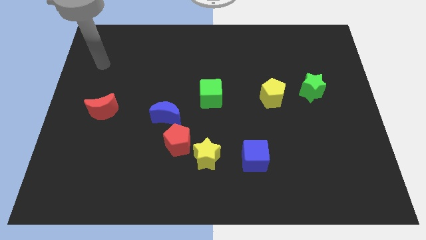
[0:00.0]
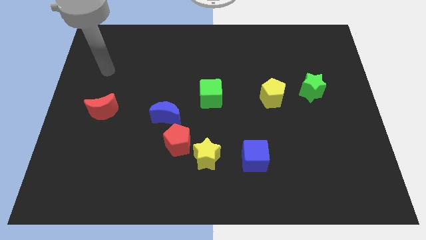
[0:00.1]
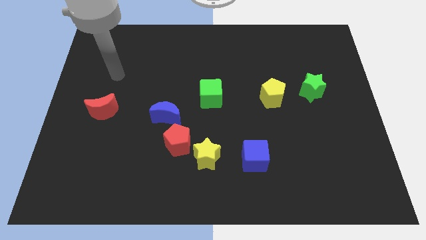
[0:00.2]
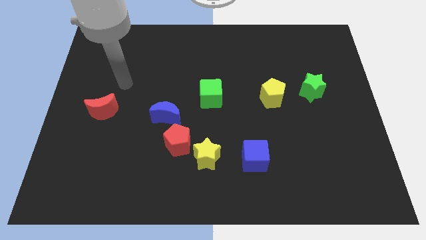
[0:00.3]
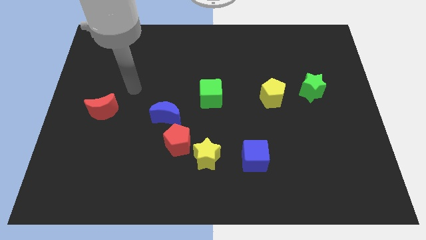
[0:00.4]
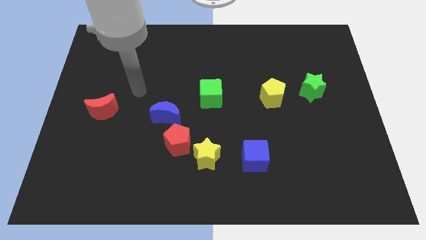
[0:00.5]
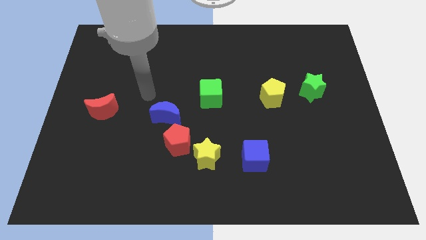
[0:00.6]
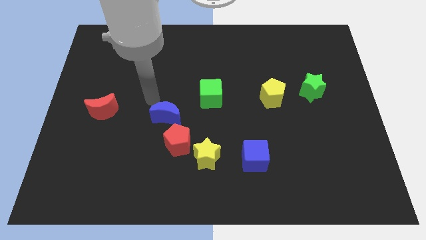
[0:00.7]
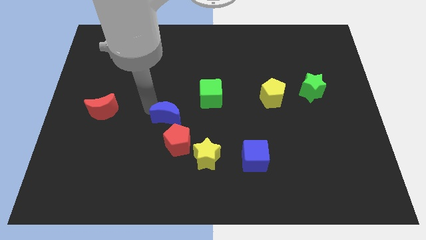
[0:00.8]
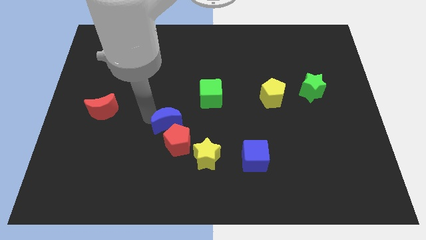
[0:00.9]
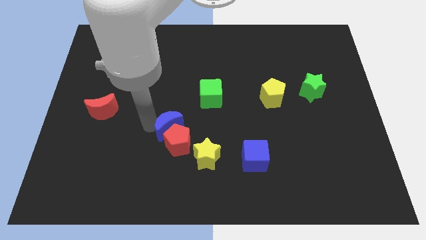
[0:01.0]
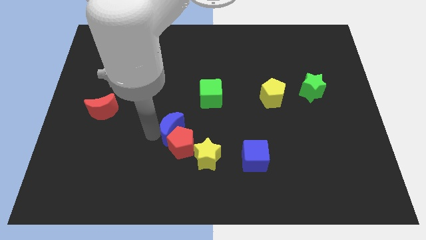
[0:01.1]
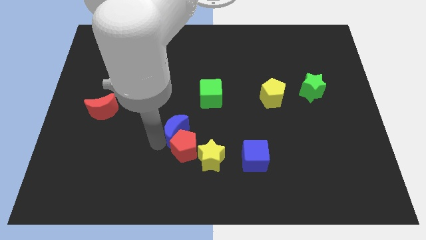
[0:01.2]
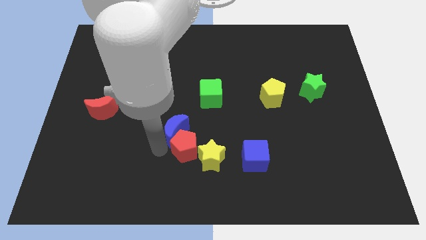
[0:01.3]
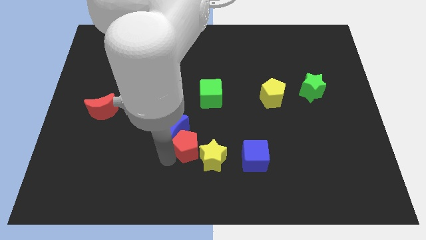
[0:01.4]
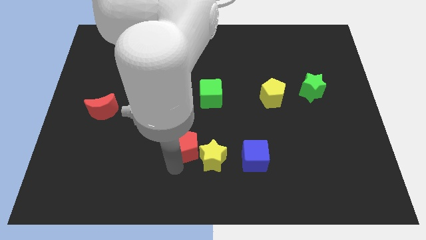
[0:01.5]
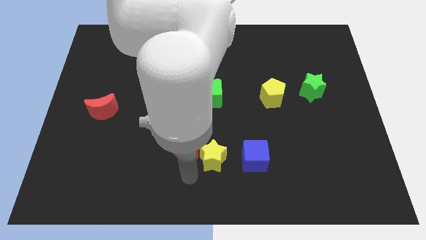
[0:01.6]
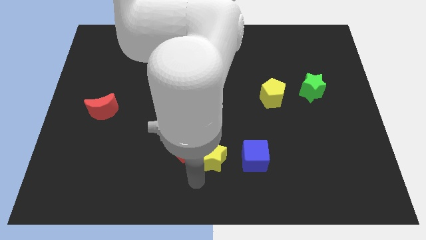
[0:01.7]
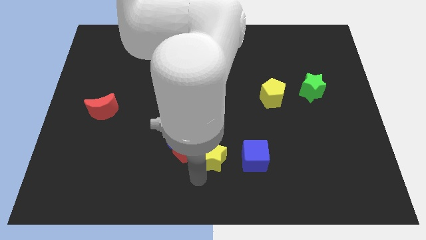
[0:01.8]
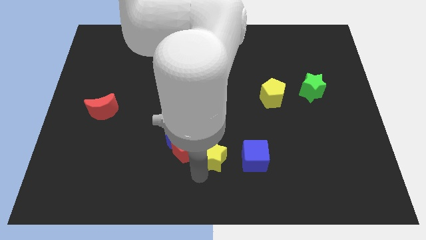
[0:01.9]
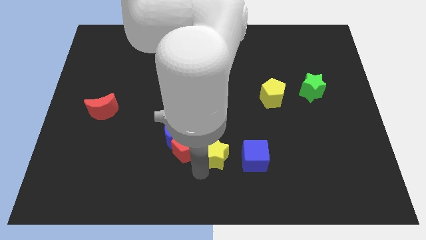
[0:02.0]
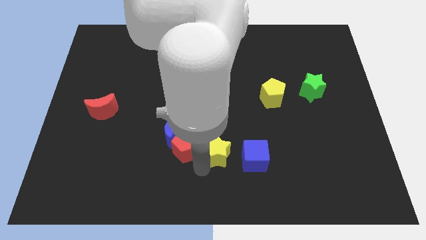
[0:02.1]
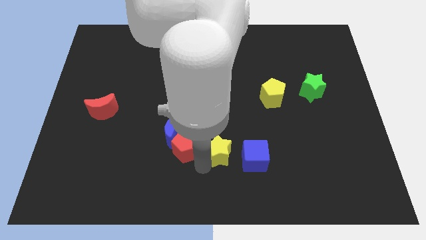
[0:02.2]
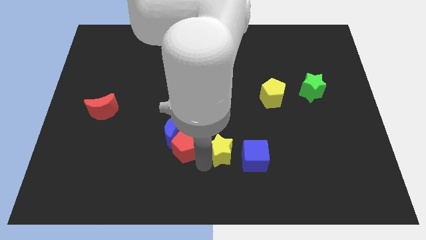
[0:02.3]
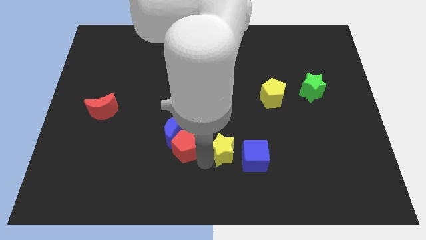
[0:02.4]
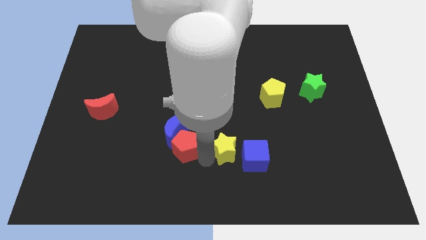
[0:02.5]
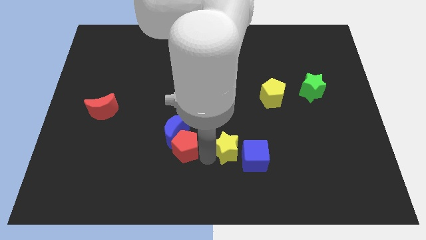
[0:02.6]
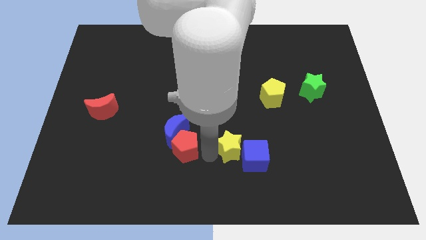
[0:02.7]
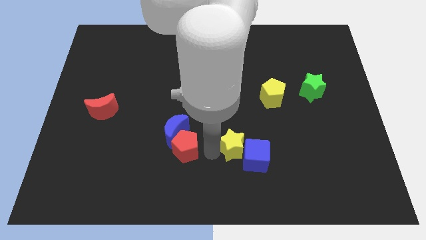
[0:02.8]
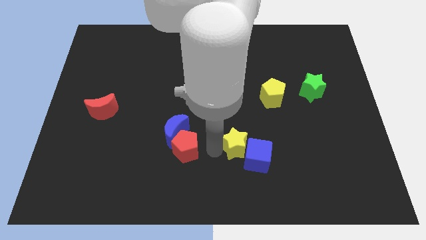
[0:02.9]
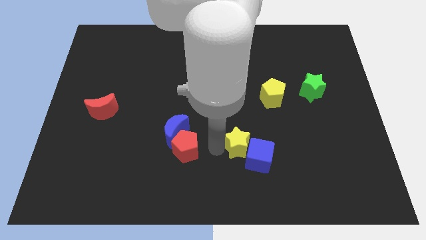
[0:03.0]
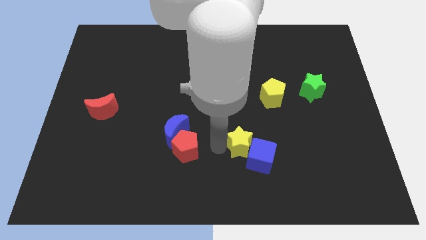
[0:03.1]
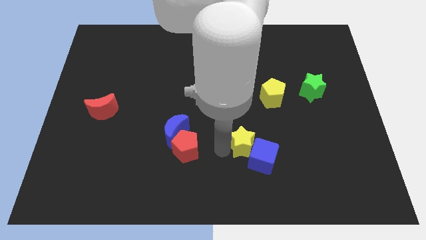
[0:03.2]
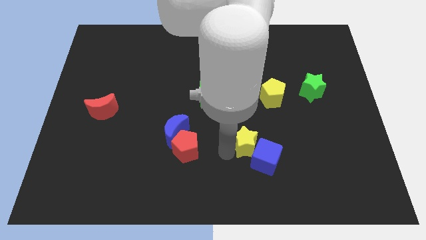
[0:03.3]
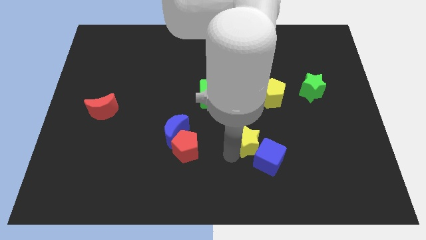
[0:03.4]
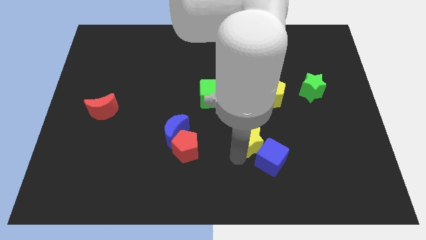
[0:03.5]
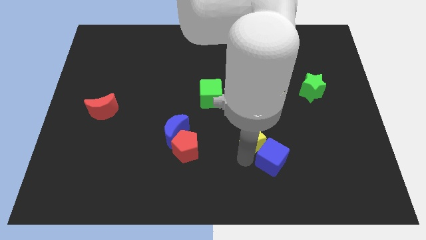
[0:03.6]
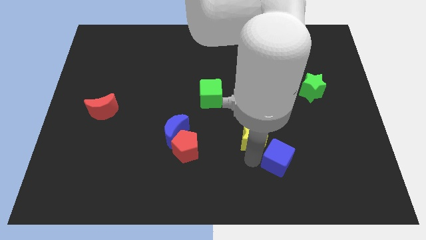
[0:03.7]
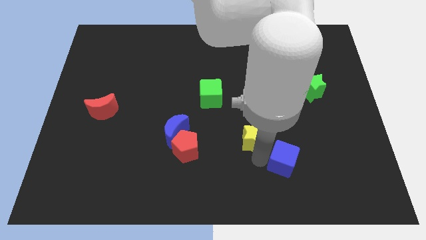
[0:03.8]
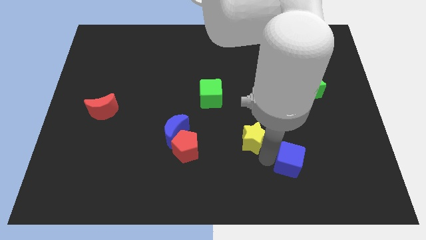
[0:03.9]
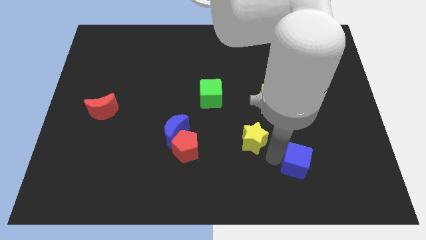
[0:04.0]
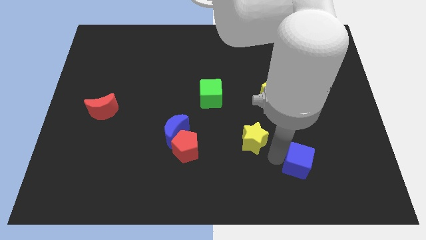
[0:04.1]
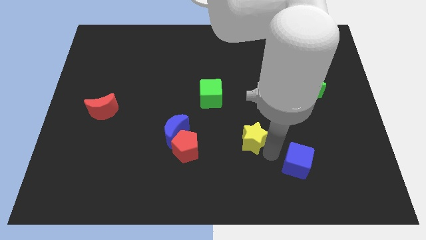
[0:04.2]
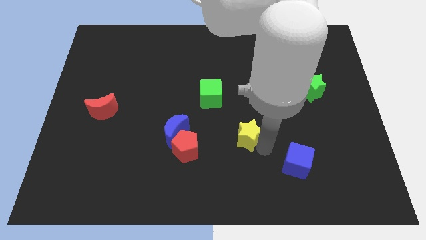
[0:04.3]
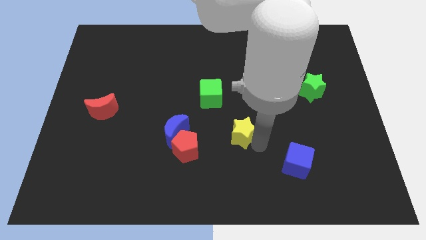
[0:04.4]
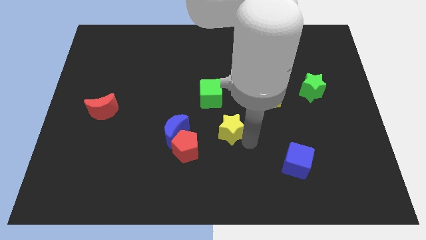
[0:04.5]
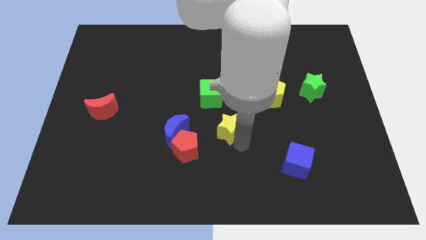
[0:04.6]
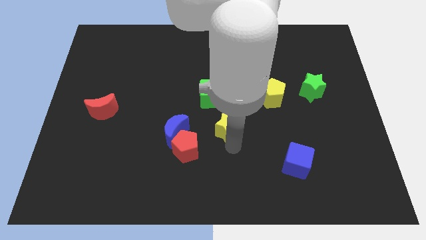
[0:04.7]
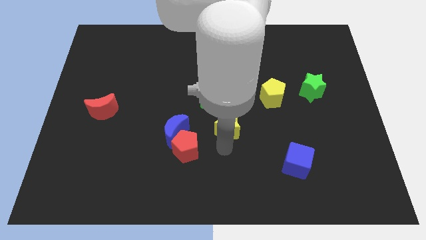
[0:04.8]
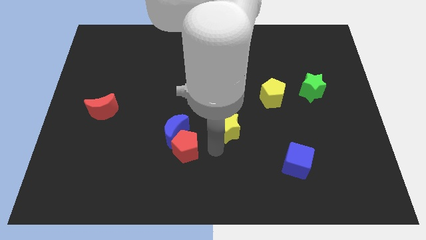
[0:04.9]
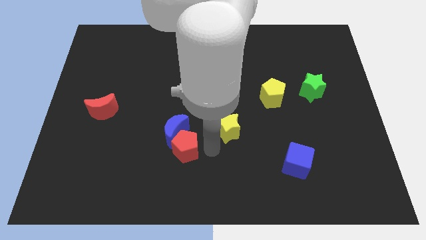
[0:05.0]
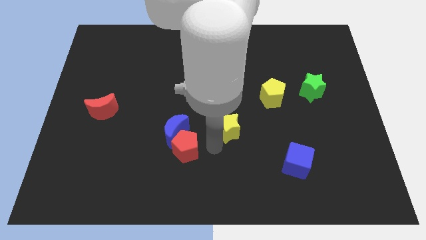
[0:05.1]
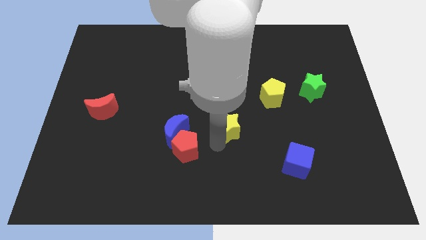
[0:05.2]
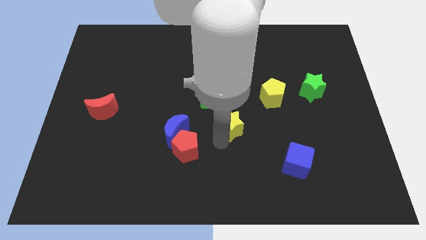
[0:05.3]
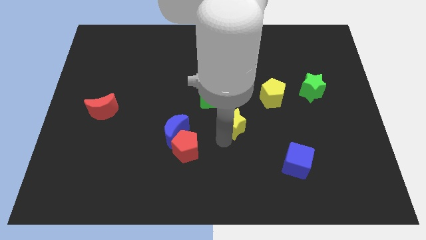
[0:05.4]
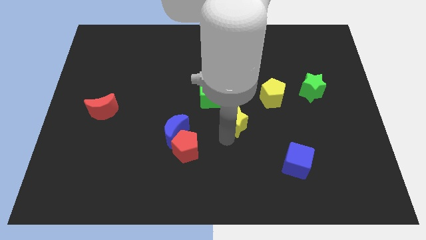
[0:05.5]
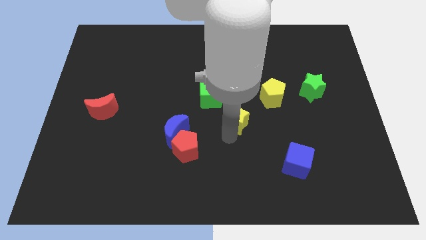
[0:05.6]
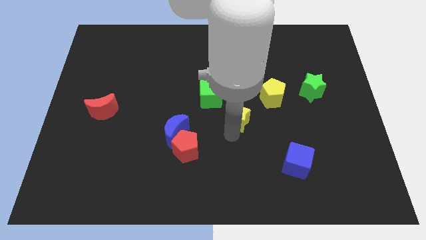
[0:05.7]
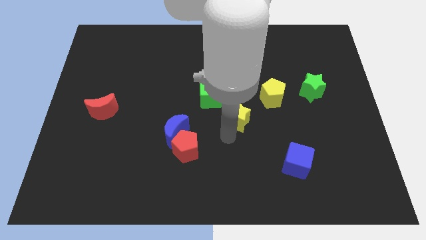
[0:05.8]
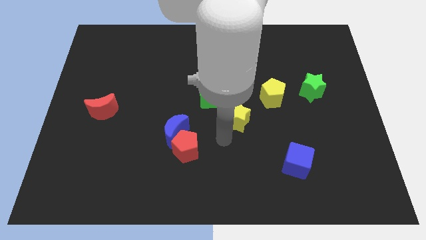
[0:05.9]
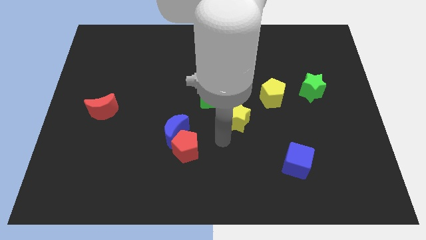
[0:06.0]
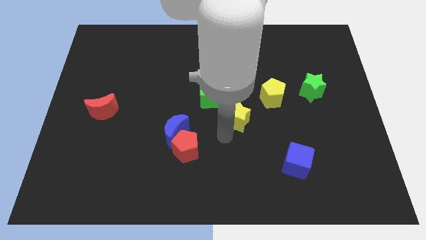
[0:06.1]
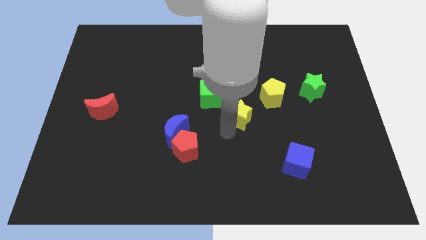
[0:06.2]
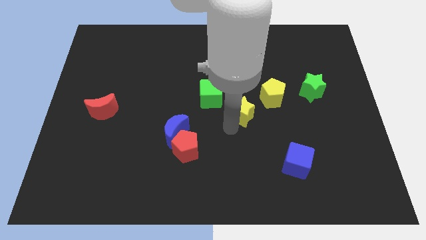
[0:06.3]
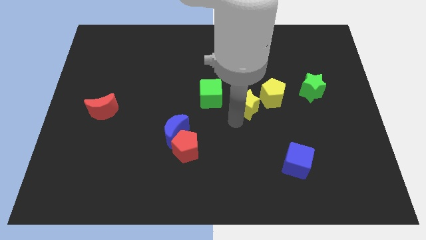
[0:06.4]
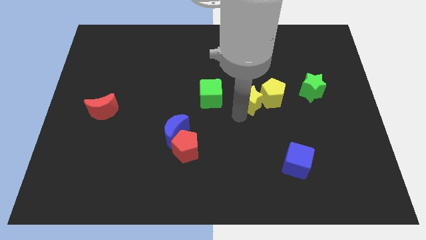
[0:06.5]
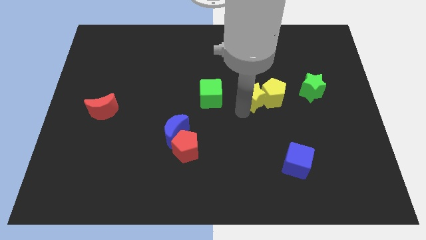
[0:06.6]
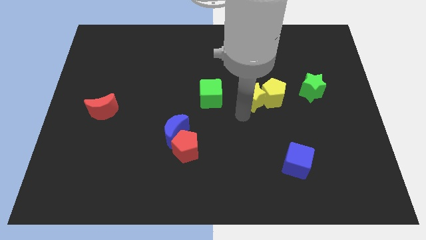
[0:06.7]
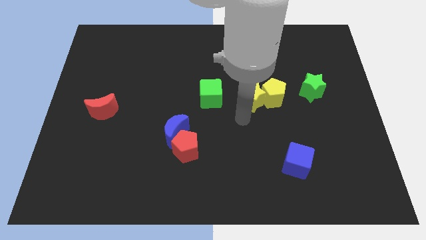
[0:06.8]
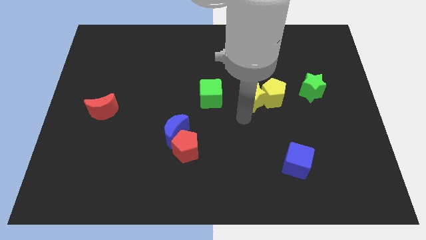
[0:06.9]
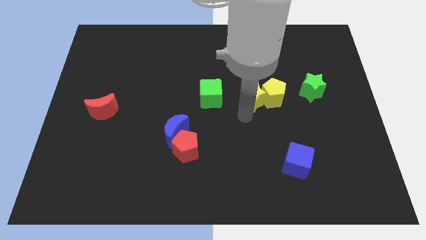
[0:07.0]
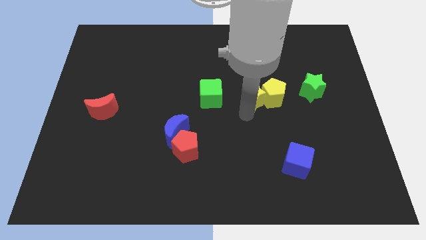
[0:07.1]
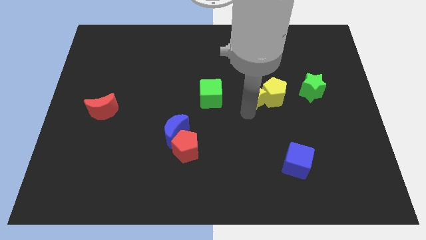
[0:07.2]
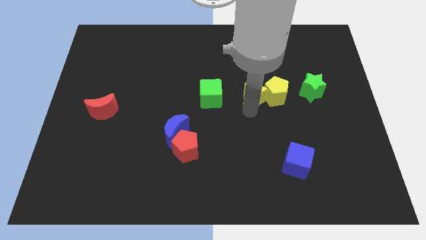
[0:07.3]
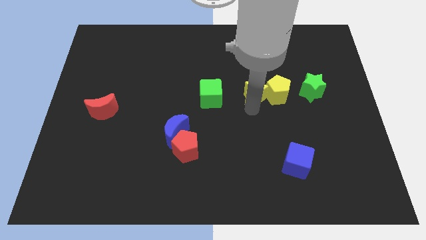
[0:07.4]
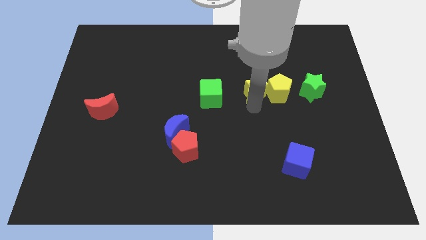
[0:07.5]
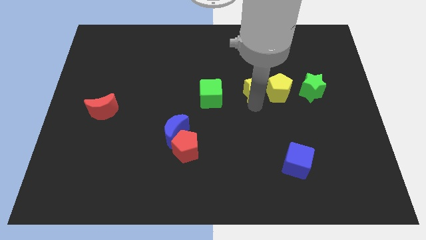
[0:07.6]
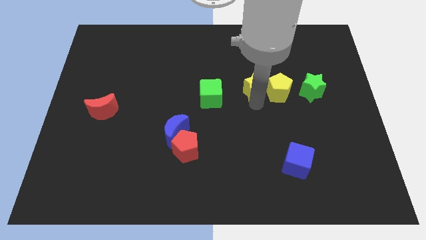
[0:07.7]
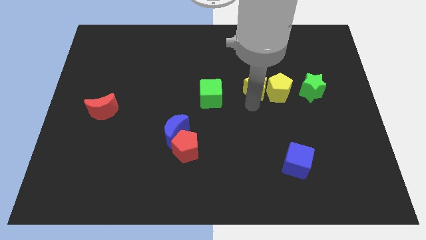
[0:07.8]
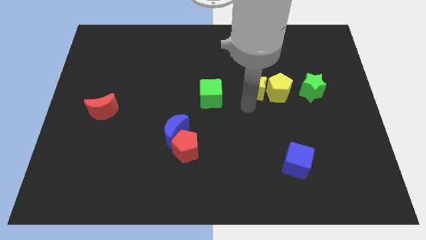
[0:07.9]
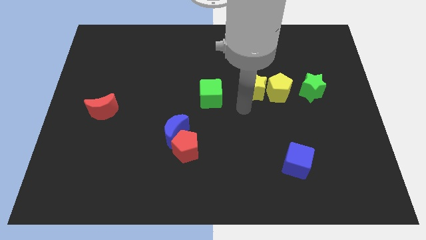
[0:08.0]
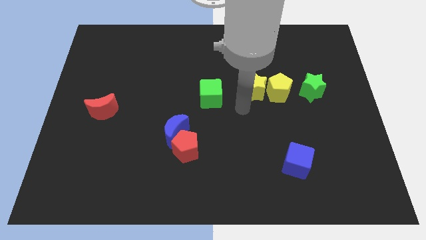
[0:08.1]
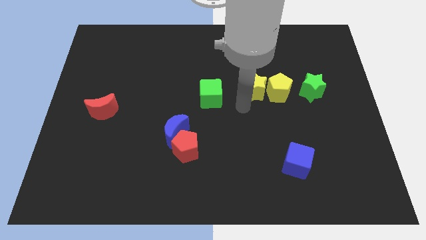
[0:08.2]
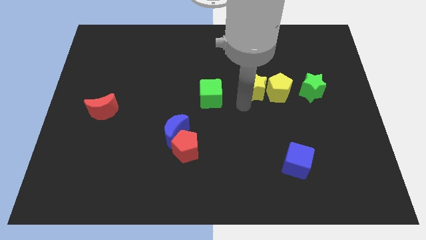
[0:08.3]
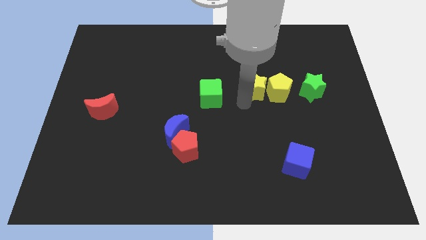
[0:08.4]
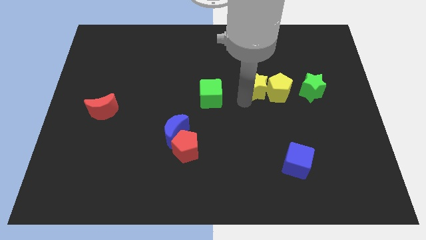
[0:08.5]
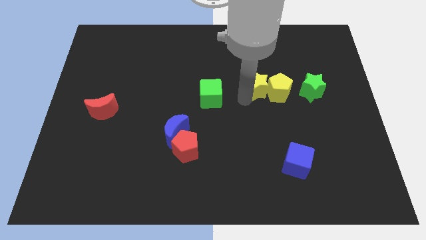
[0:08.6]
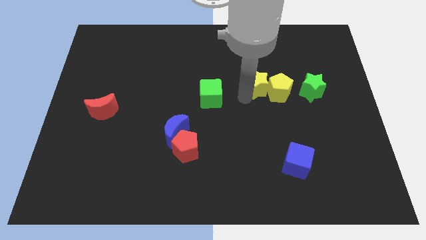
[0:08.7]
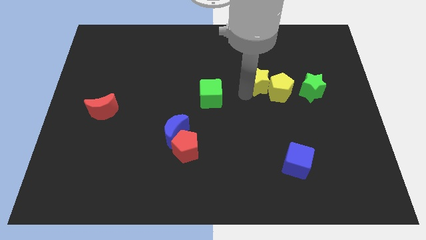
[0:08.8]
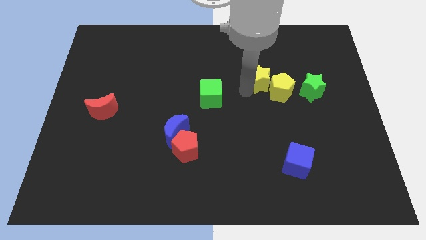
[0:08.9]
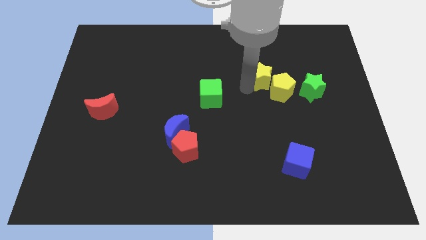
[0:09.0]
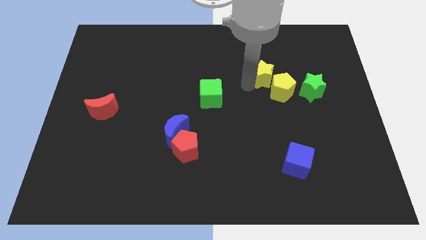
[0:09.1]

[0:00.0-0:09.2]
put the yellow star above the yellow pentagon
